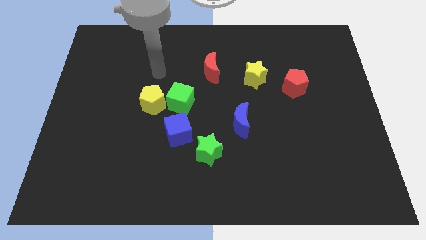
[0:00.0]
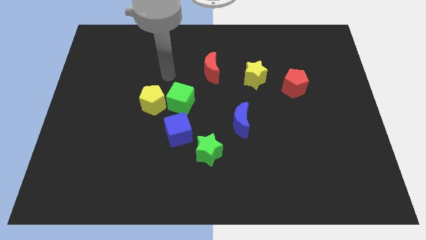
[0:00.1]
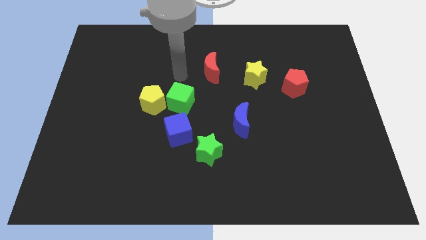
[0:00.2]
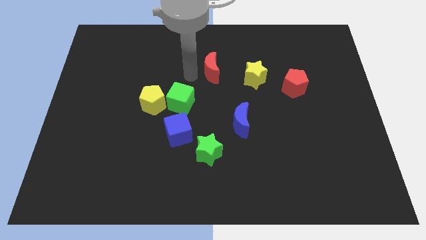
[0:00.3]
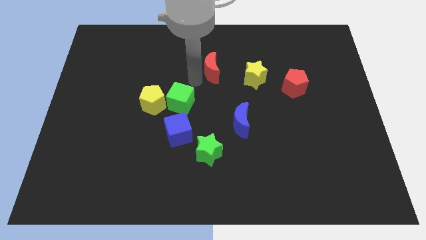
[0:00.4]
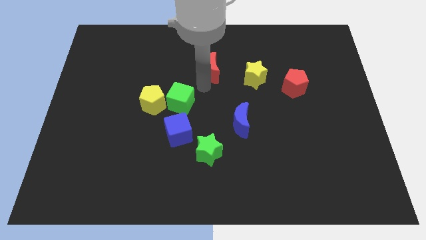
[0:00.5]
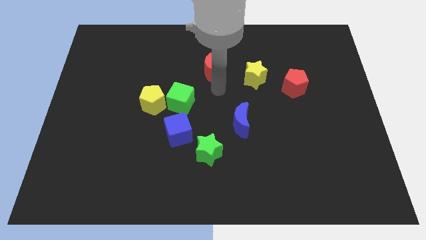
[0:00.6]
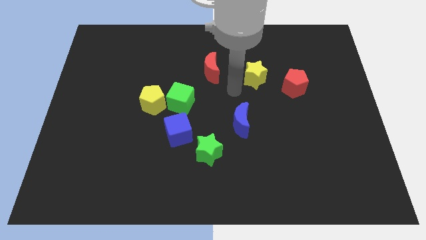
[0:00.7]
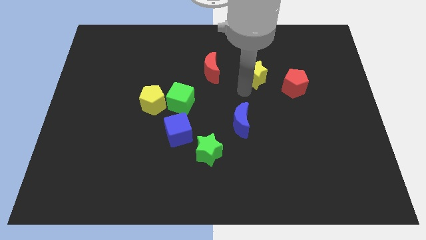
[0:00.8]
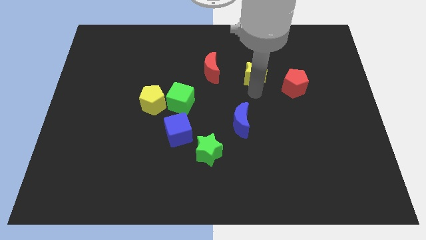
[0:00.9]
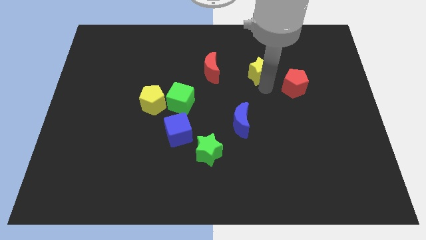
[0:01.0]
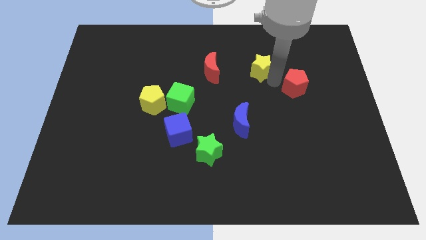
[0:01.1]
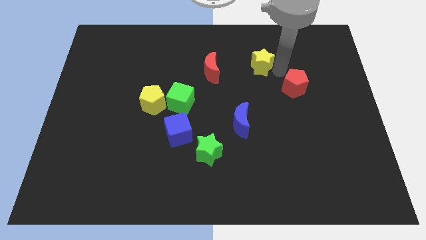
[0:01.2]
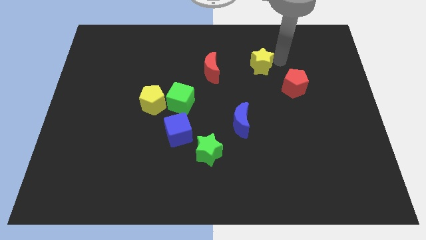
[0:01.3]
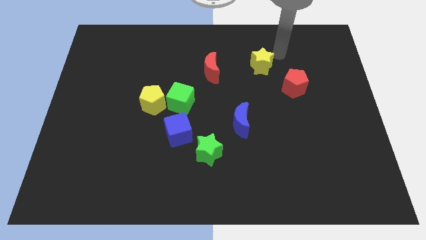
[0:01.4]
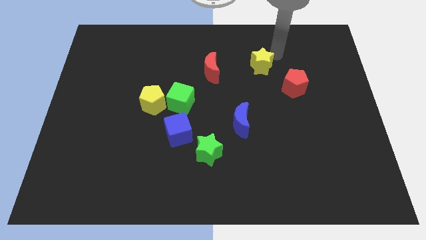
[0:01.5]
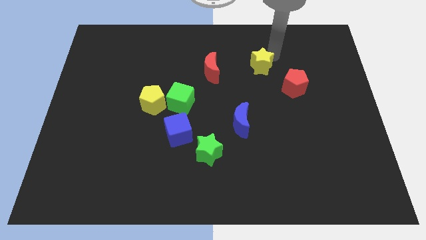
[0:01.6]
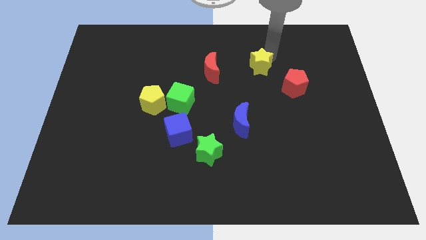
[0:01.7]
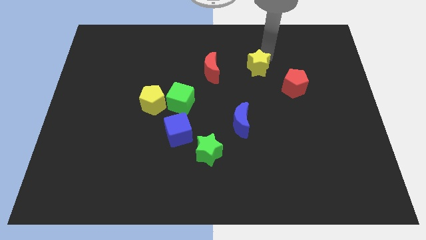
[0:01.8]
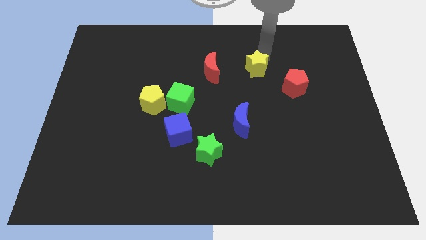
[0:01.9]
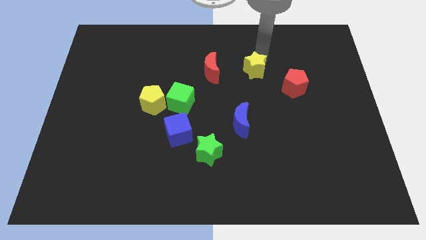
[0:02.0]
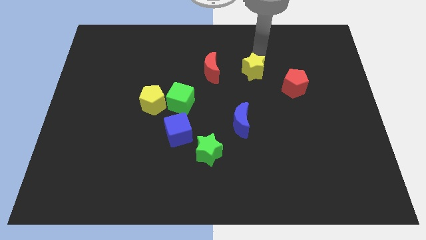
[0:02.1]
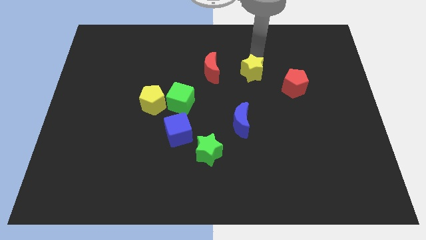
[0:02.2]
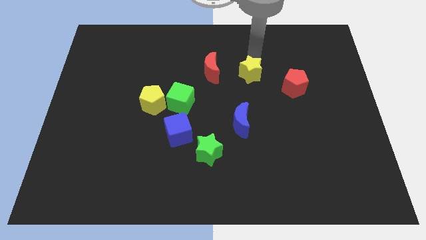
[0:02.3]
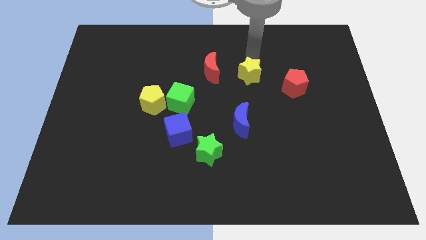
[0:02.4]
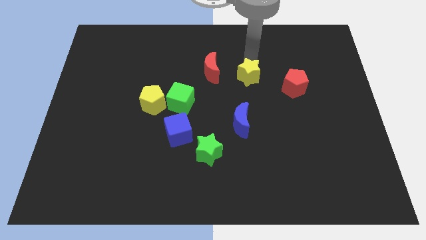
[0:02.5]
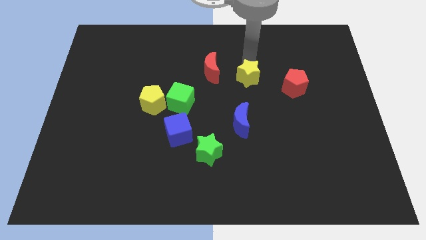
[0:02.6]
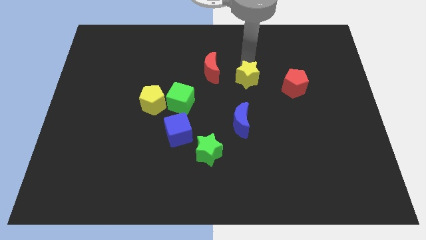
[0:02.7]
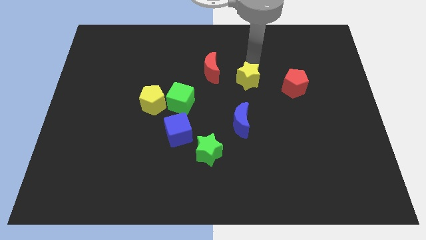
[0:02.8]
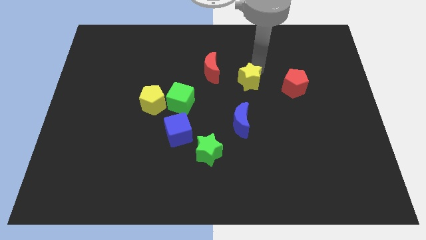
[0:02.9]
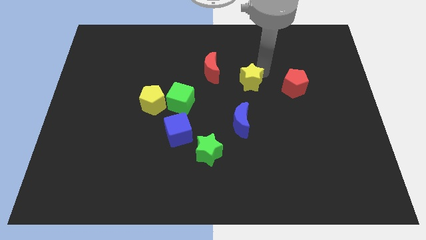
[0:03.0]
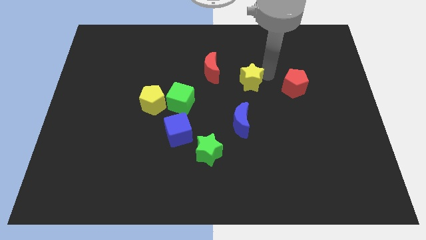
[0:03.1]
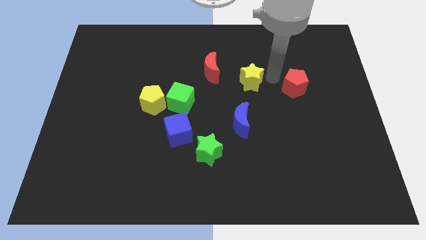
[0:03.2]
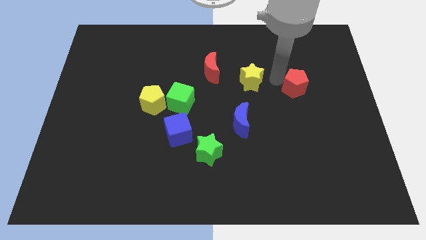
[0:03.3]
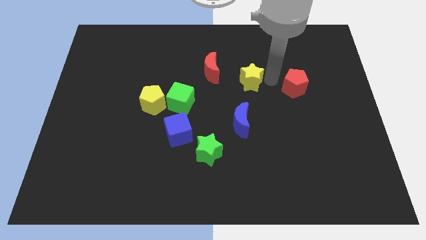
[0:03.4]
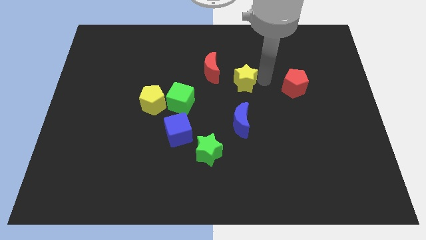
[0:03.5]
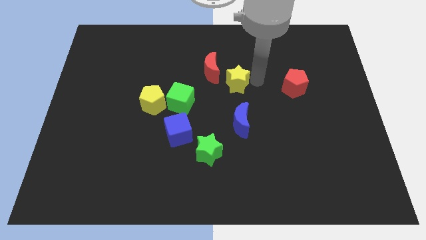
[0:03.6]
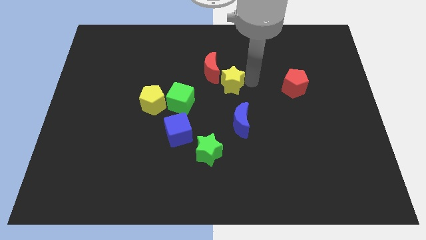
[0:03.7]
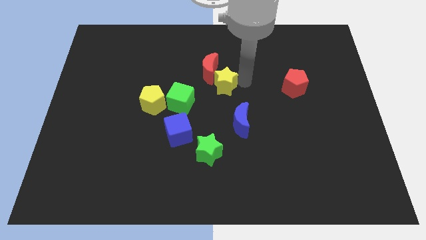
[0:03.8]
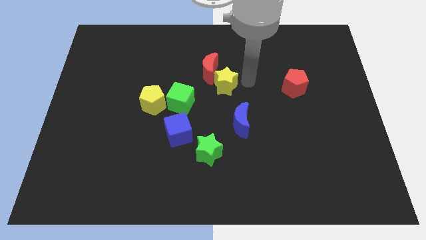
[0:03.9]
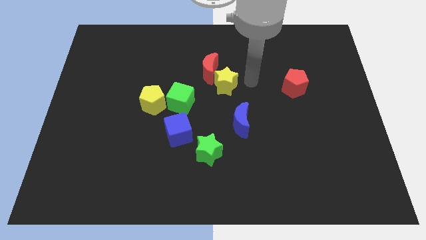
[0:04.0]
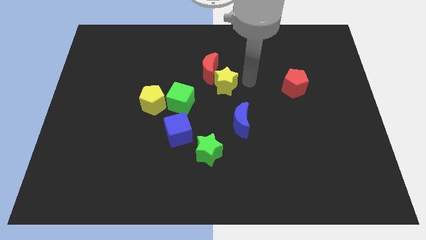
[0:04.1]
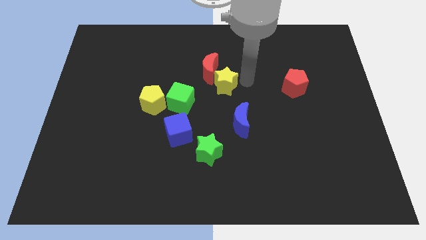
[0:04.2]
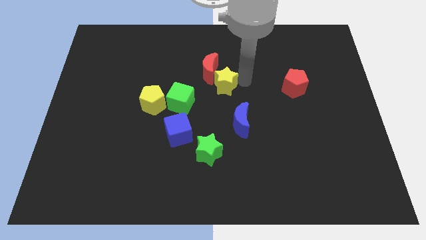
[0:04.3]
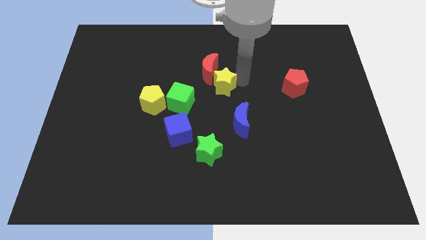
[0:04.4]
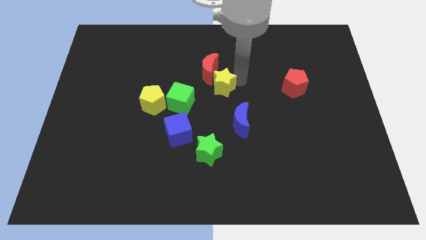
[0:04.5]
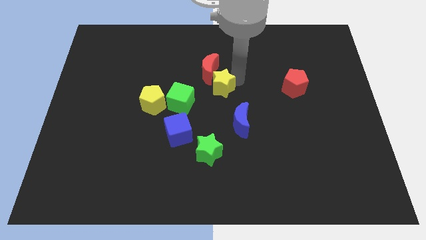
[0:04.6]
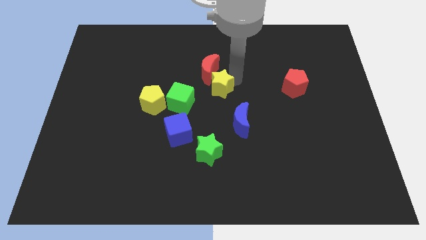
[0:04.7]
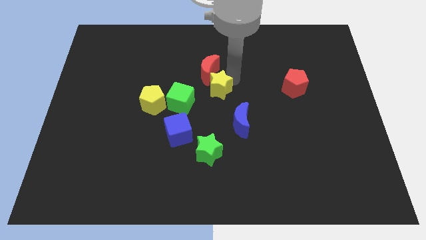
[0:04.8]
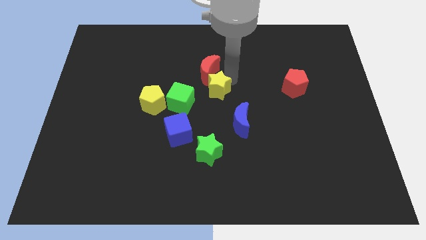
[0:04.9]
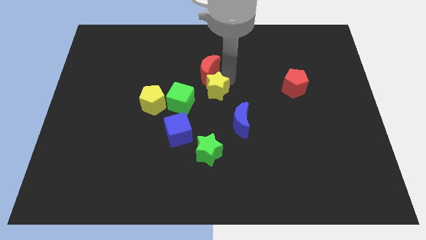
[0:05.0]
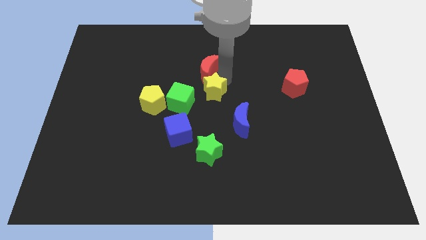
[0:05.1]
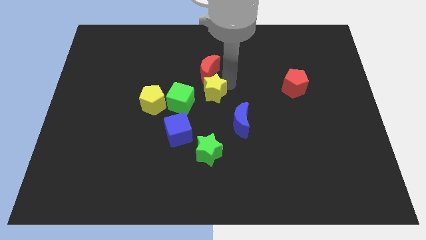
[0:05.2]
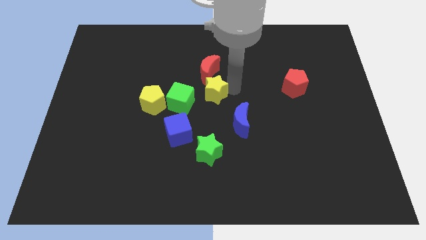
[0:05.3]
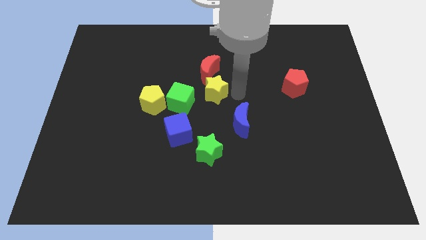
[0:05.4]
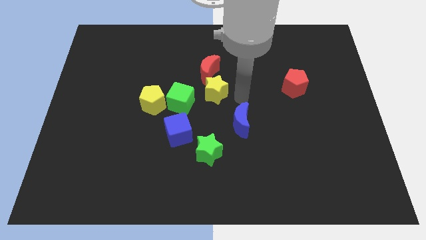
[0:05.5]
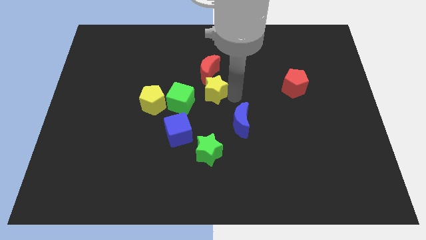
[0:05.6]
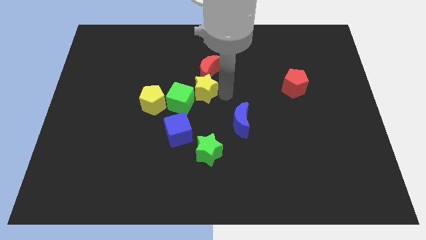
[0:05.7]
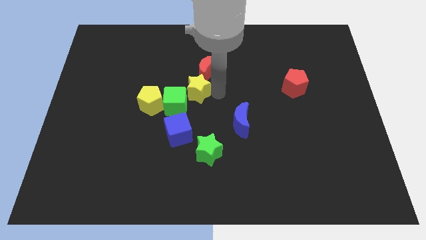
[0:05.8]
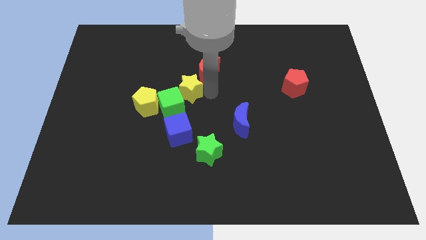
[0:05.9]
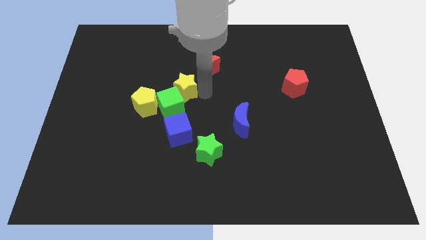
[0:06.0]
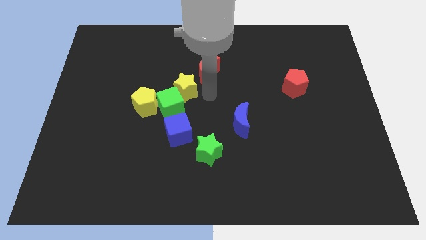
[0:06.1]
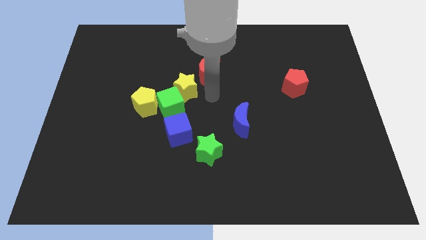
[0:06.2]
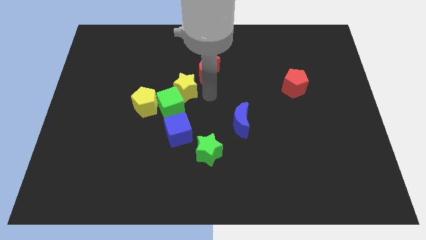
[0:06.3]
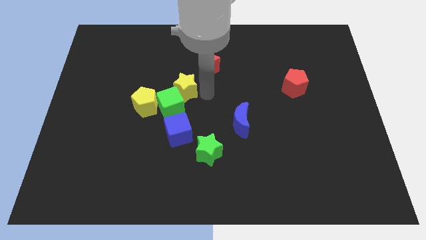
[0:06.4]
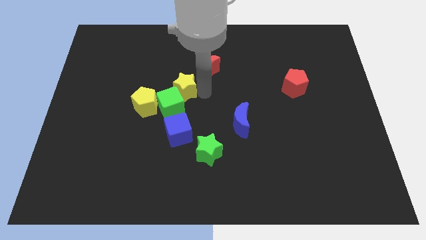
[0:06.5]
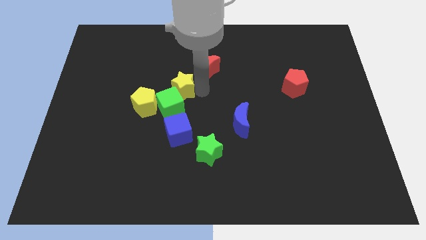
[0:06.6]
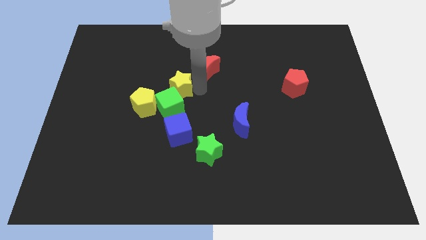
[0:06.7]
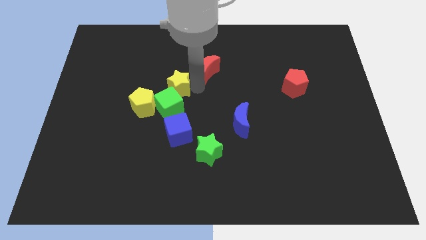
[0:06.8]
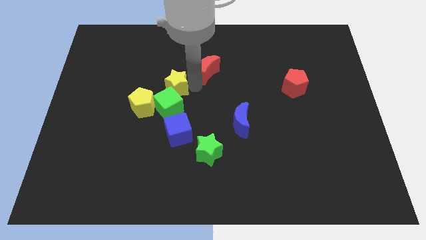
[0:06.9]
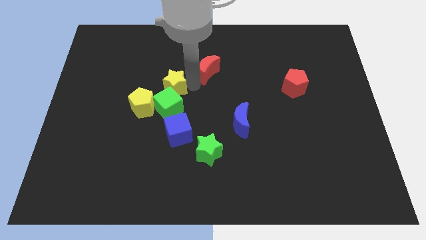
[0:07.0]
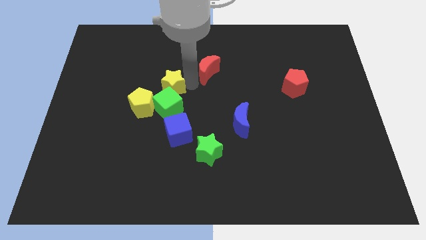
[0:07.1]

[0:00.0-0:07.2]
move the yellow star left

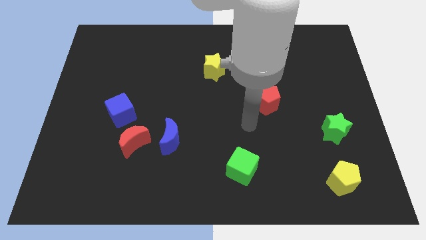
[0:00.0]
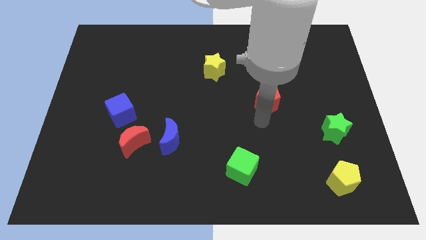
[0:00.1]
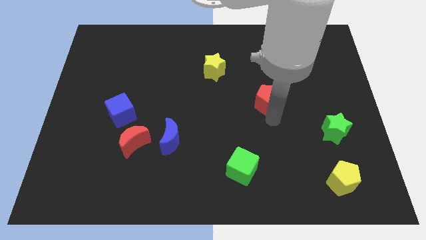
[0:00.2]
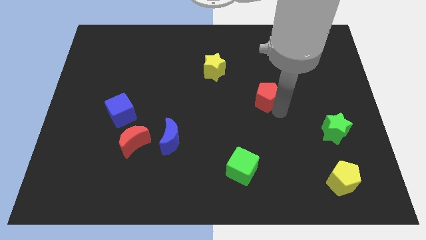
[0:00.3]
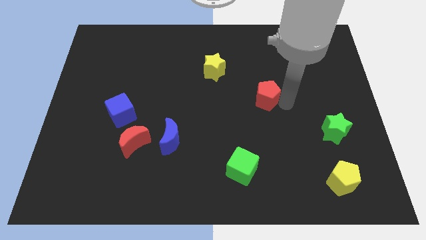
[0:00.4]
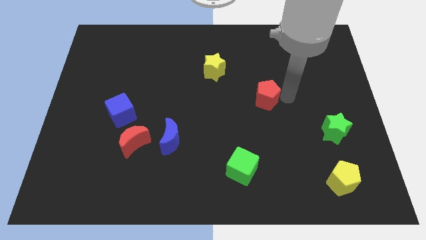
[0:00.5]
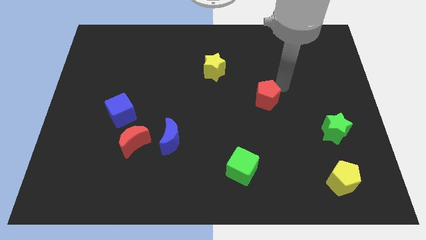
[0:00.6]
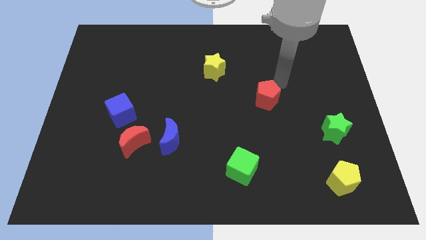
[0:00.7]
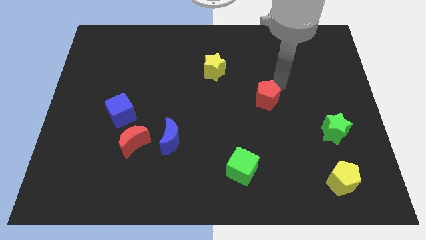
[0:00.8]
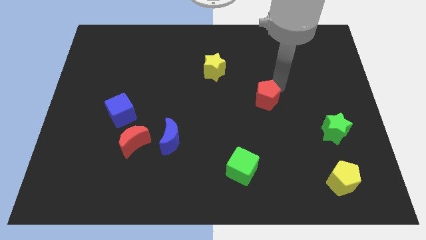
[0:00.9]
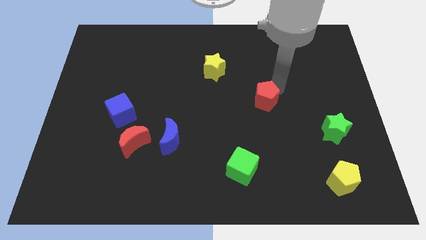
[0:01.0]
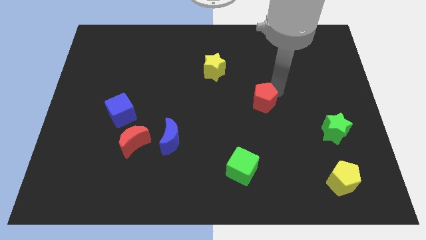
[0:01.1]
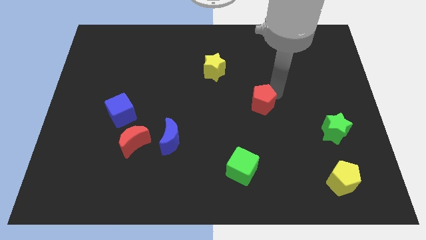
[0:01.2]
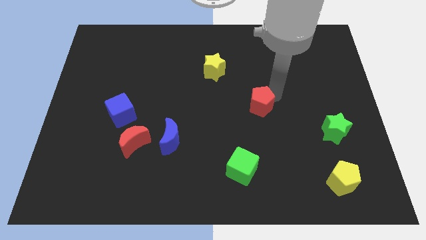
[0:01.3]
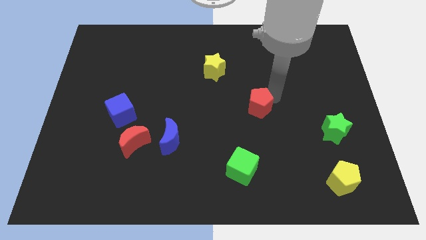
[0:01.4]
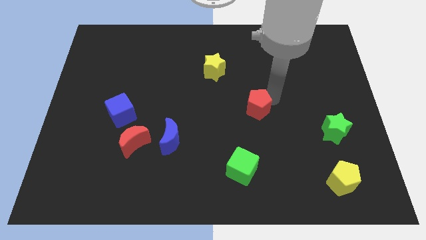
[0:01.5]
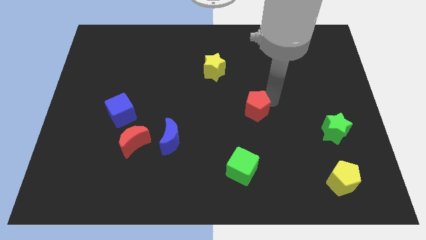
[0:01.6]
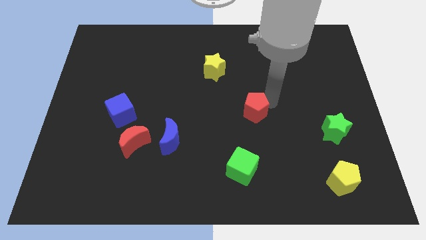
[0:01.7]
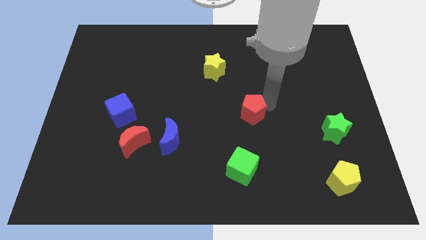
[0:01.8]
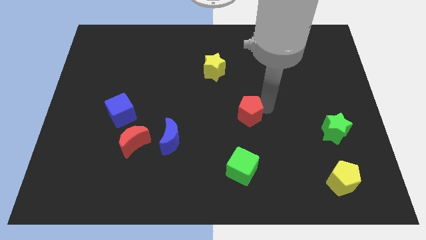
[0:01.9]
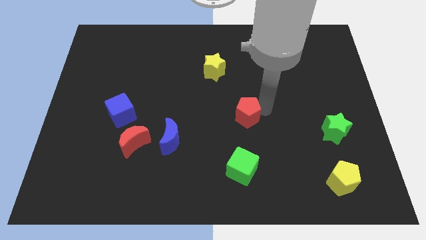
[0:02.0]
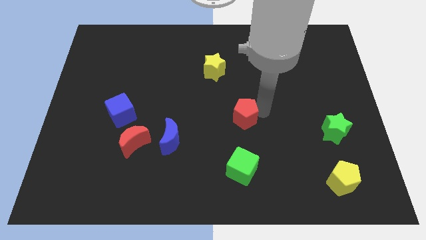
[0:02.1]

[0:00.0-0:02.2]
slide the red pentagon diagonally downwards and to the left slightly
